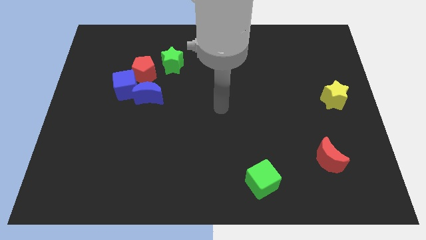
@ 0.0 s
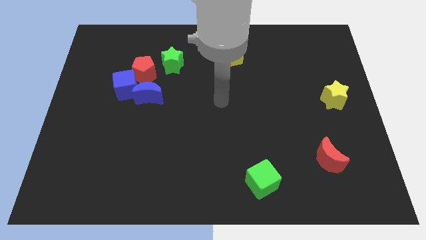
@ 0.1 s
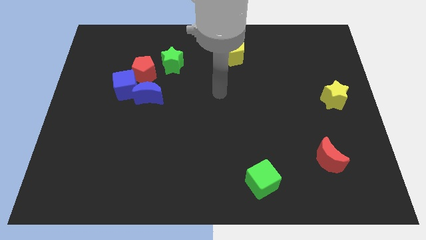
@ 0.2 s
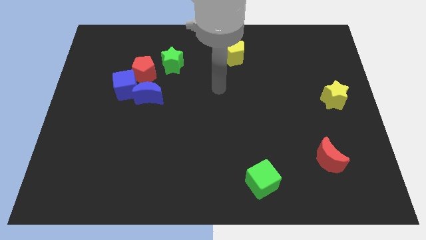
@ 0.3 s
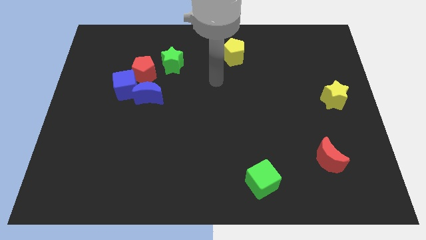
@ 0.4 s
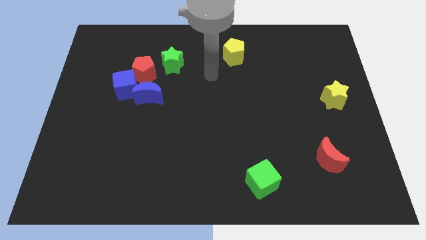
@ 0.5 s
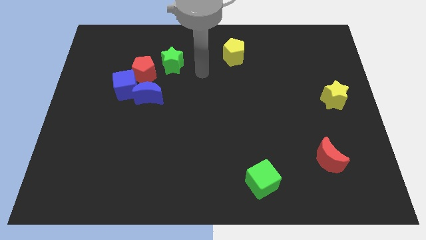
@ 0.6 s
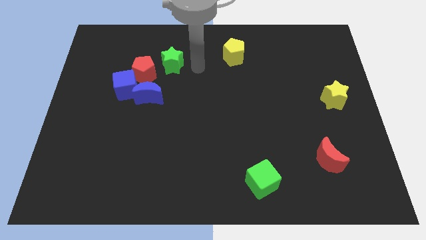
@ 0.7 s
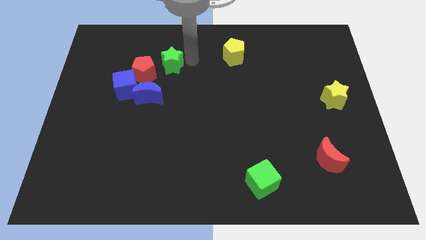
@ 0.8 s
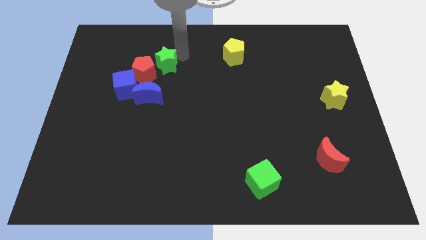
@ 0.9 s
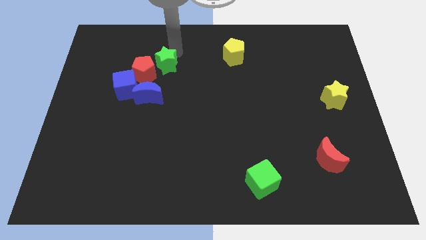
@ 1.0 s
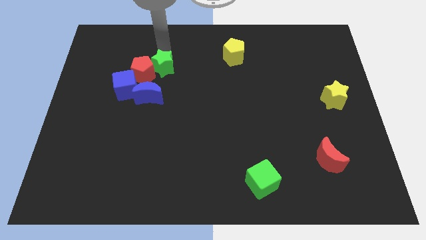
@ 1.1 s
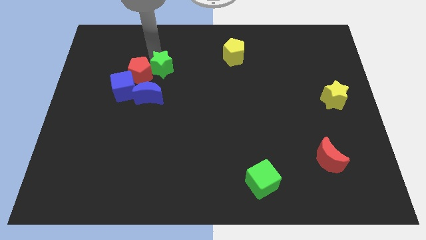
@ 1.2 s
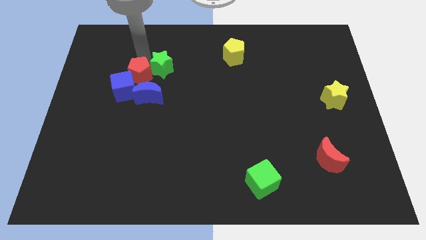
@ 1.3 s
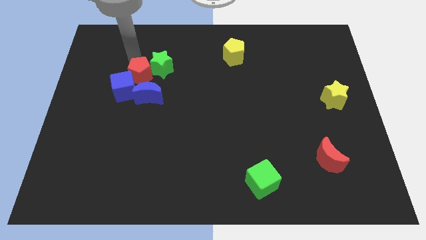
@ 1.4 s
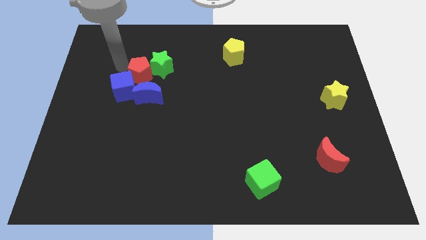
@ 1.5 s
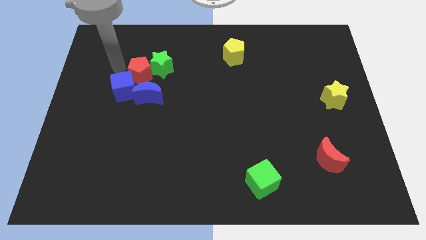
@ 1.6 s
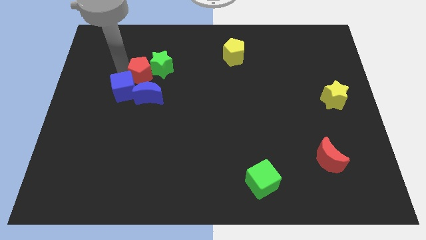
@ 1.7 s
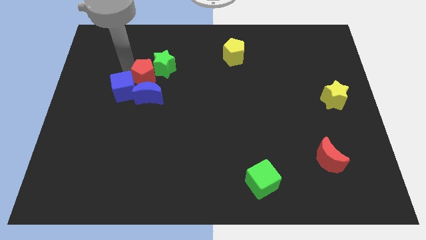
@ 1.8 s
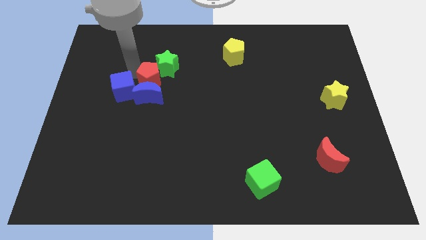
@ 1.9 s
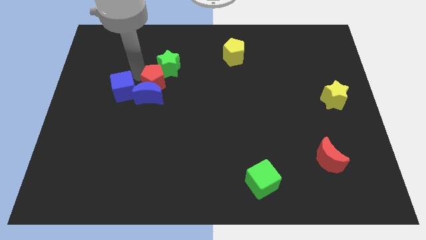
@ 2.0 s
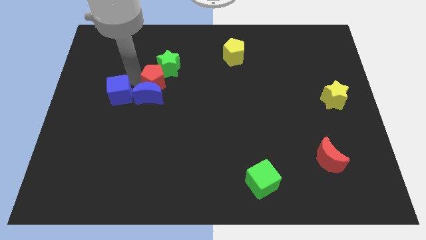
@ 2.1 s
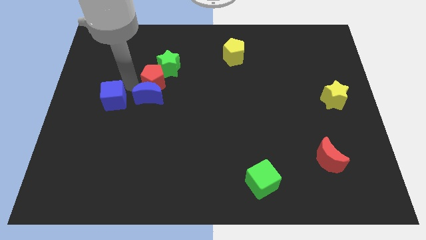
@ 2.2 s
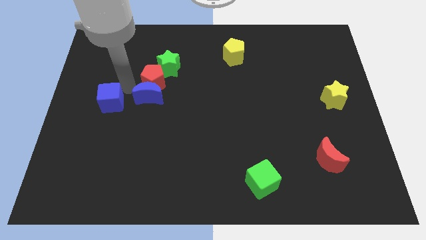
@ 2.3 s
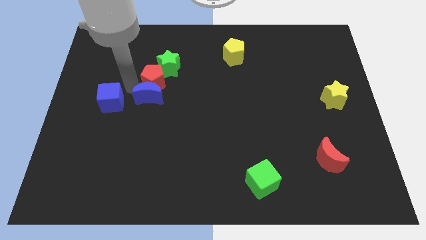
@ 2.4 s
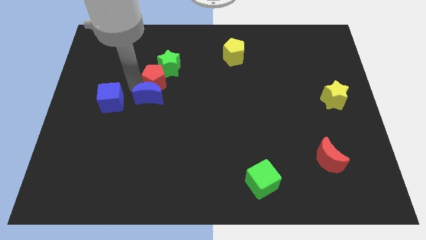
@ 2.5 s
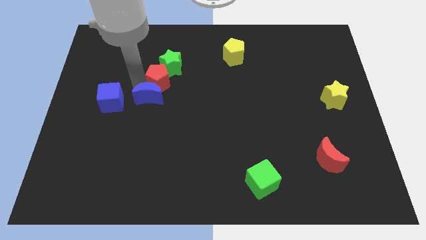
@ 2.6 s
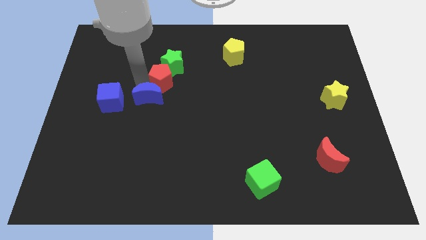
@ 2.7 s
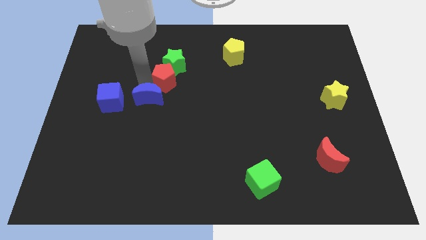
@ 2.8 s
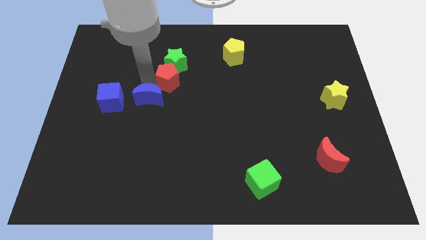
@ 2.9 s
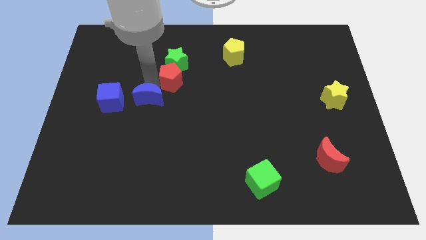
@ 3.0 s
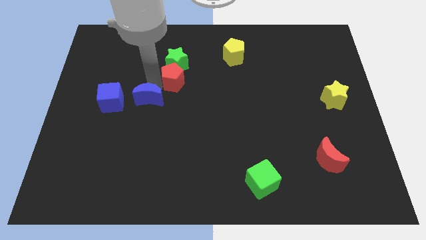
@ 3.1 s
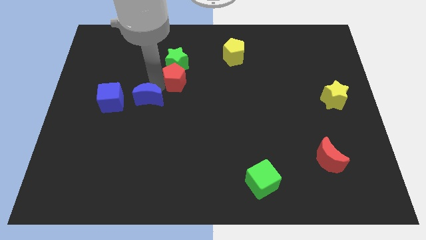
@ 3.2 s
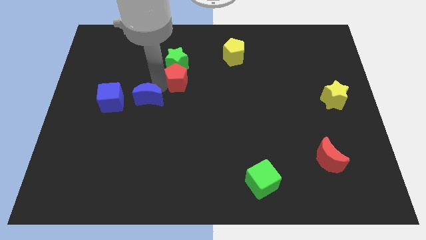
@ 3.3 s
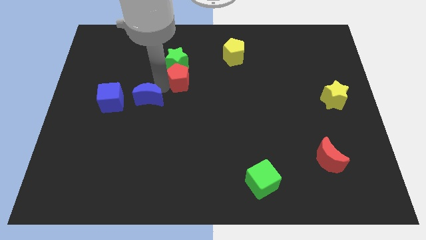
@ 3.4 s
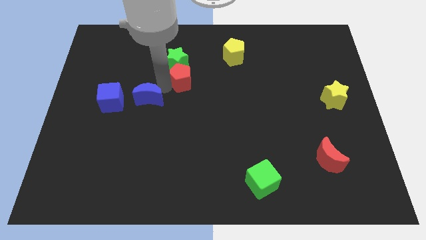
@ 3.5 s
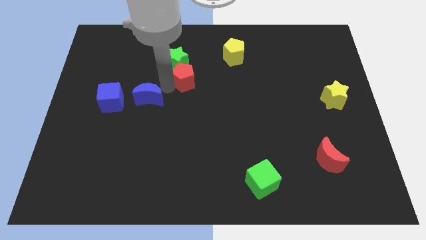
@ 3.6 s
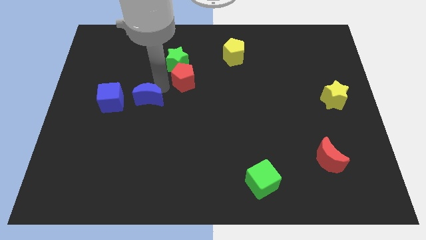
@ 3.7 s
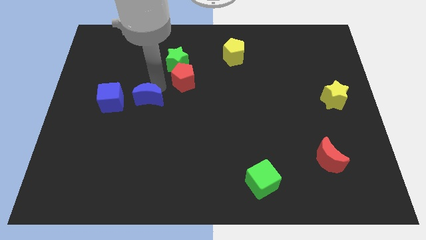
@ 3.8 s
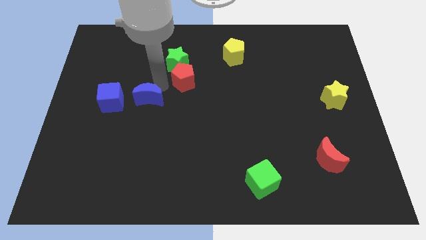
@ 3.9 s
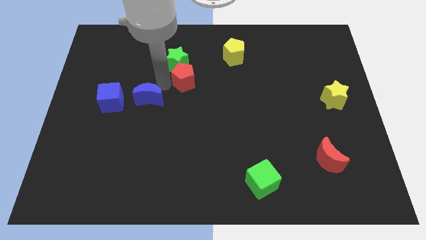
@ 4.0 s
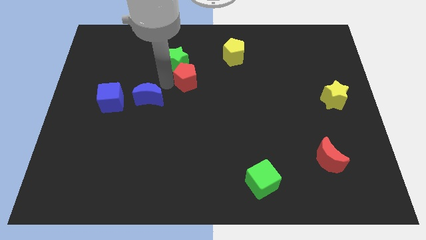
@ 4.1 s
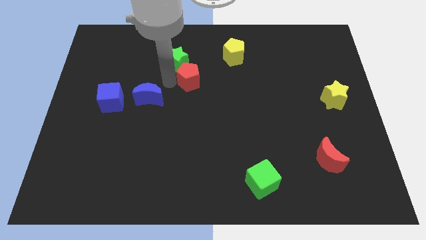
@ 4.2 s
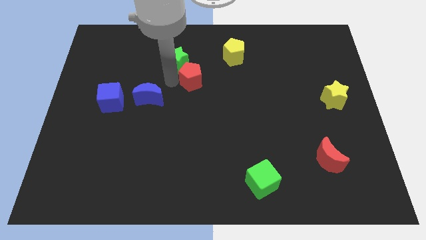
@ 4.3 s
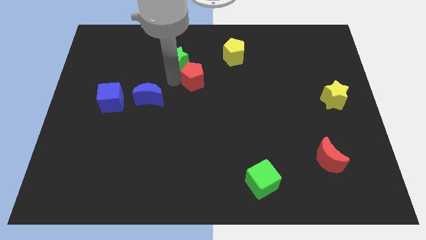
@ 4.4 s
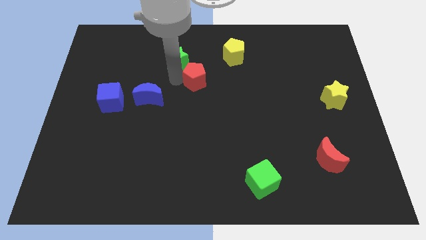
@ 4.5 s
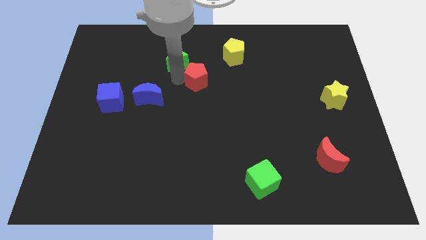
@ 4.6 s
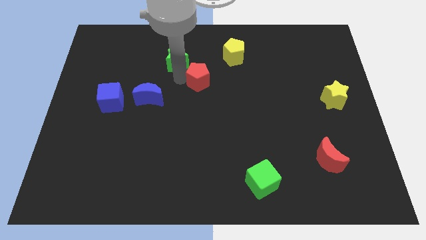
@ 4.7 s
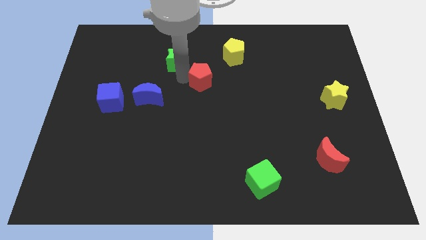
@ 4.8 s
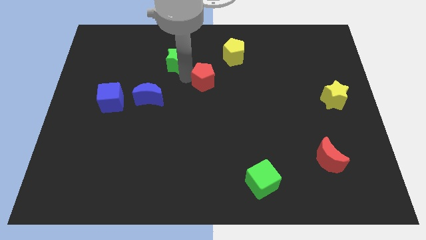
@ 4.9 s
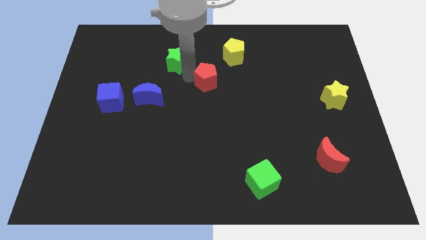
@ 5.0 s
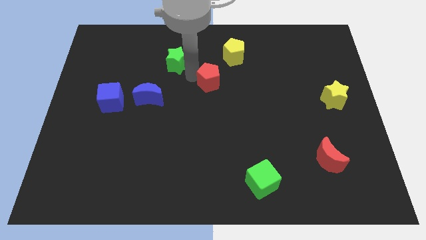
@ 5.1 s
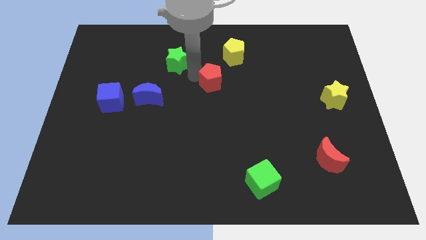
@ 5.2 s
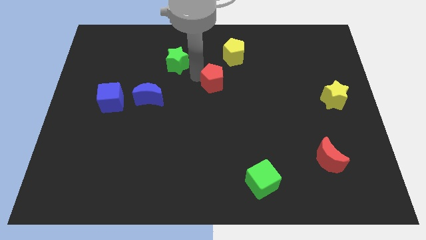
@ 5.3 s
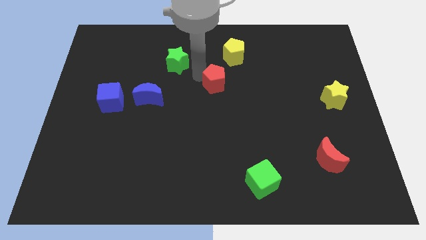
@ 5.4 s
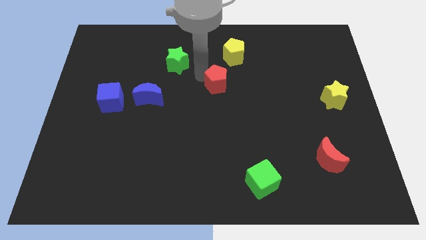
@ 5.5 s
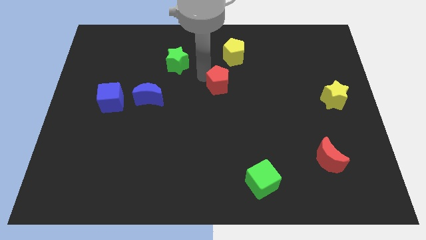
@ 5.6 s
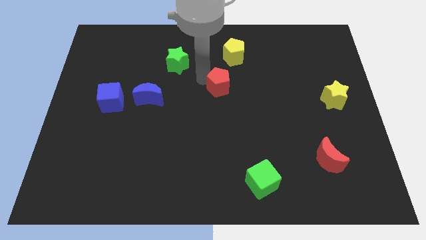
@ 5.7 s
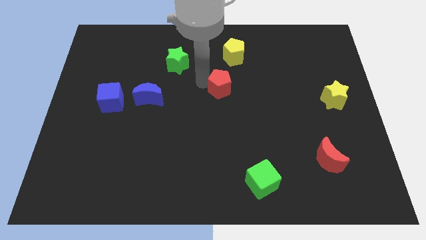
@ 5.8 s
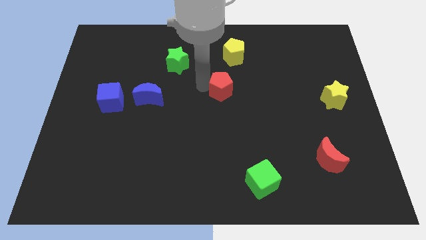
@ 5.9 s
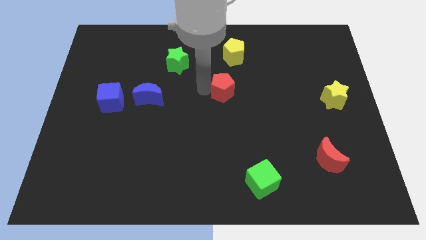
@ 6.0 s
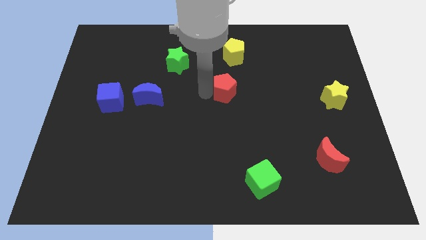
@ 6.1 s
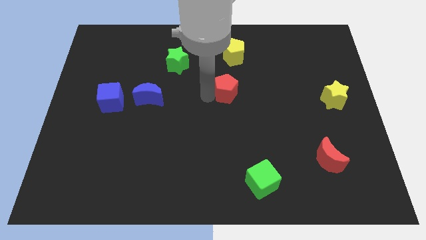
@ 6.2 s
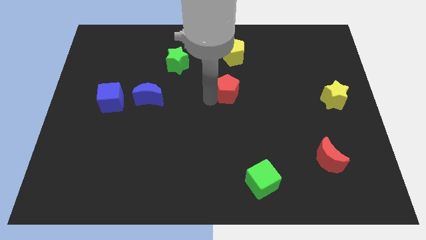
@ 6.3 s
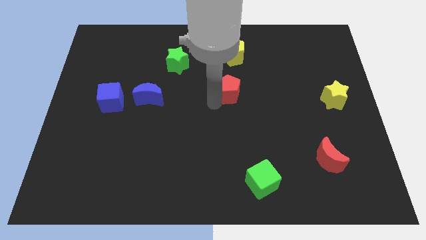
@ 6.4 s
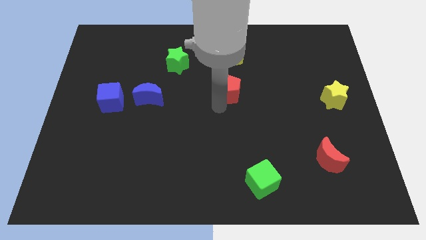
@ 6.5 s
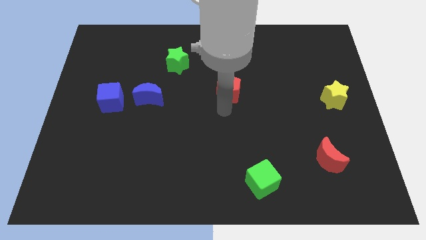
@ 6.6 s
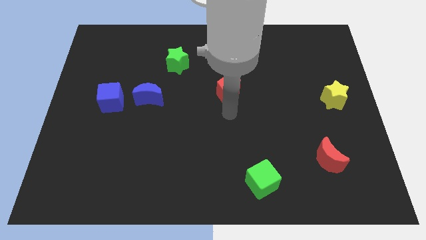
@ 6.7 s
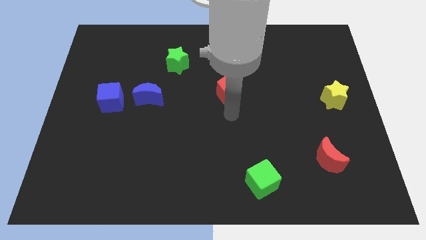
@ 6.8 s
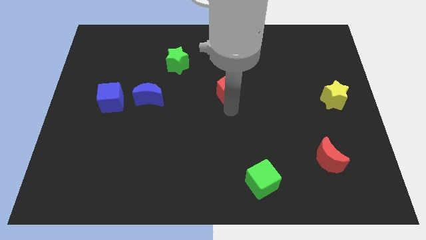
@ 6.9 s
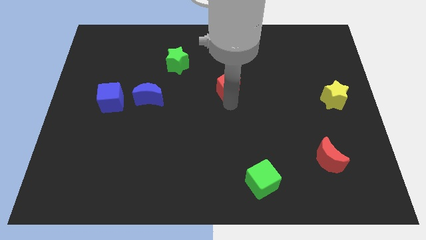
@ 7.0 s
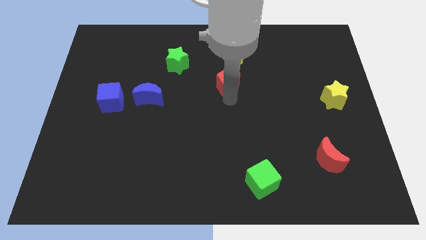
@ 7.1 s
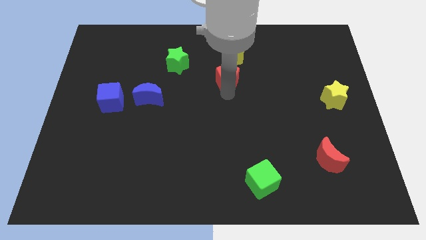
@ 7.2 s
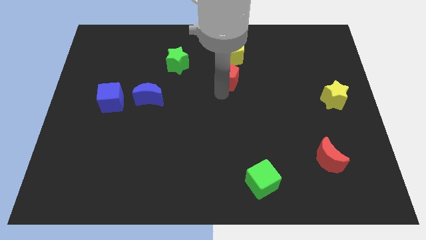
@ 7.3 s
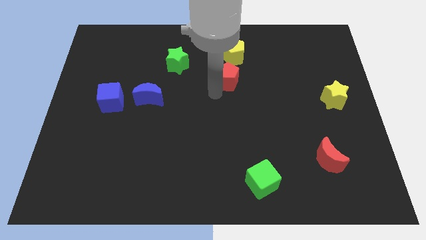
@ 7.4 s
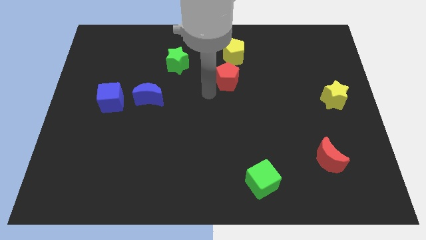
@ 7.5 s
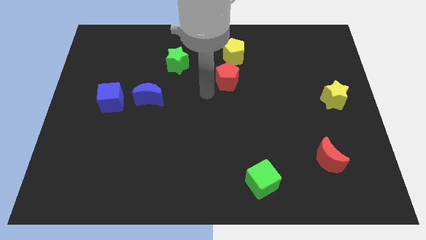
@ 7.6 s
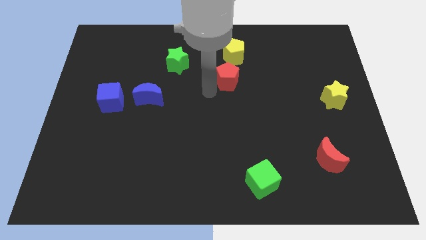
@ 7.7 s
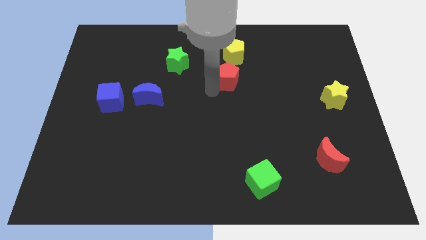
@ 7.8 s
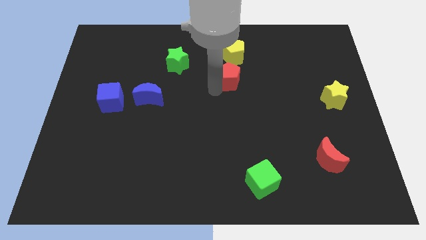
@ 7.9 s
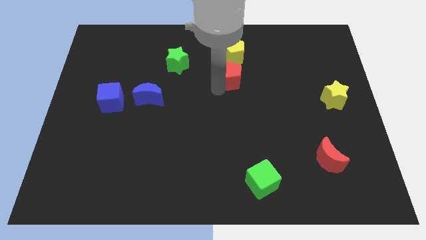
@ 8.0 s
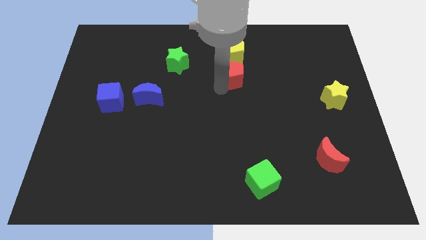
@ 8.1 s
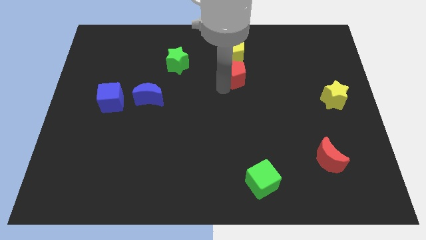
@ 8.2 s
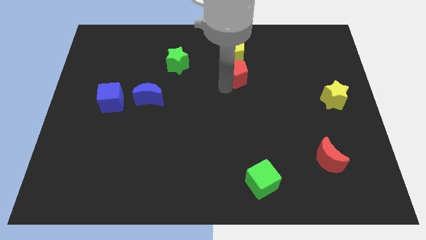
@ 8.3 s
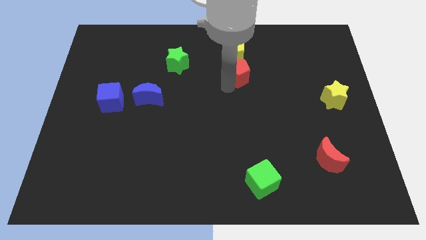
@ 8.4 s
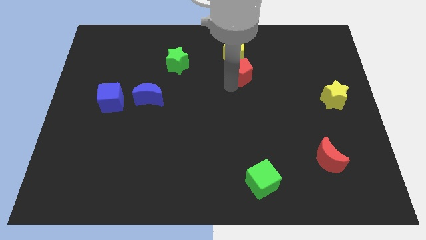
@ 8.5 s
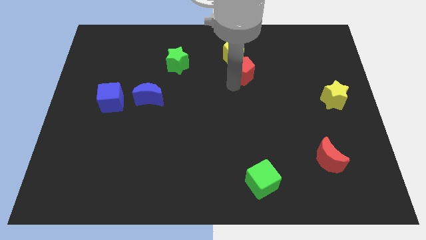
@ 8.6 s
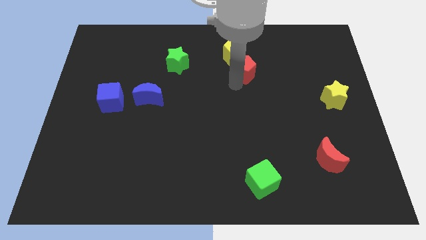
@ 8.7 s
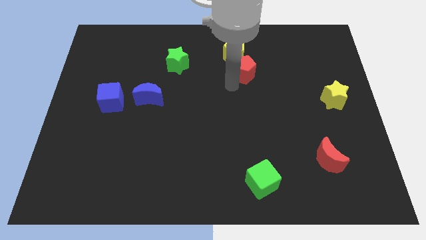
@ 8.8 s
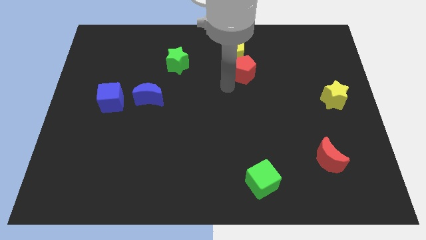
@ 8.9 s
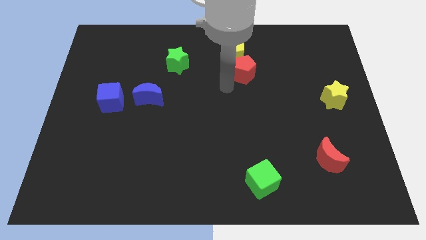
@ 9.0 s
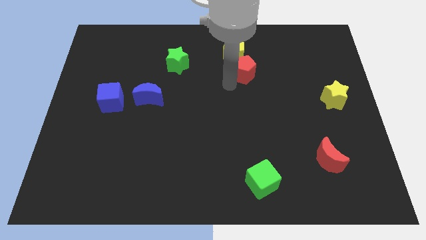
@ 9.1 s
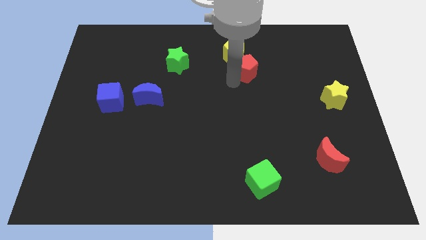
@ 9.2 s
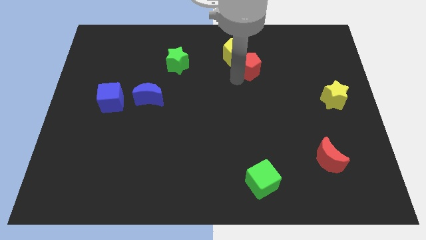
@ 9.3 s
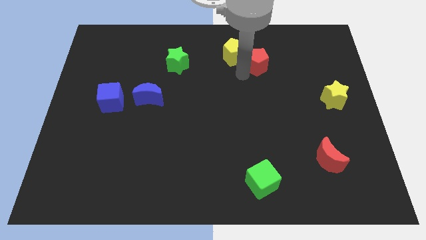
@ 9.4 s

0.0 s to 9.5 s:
slide the red pentagon right of the yellow pentagon
